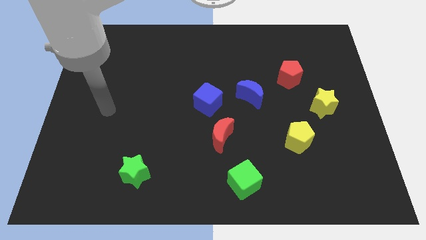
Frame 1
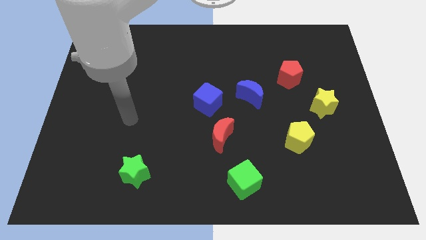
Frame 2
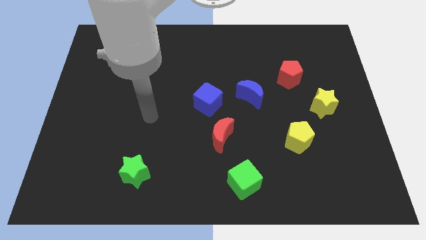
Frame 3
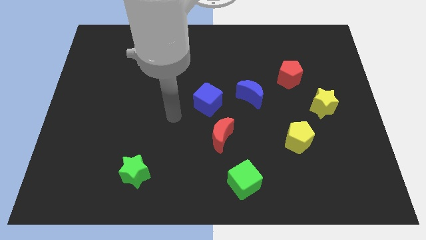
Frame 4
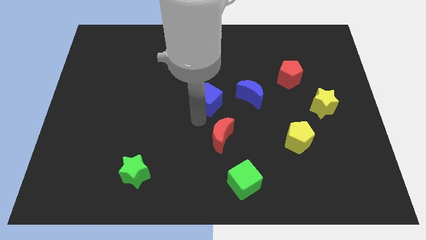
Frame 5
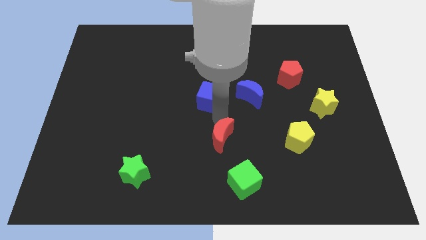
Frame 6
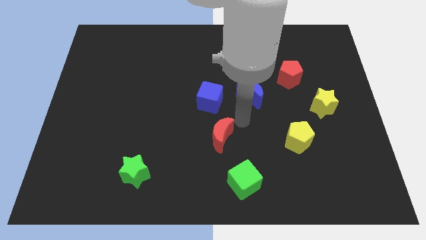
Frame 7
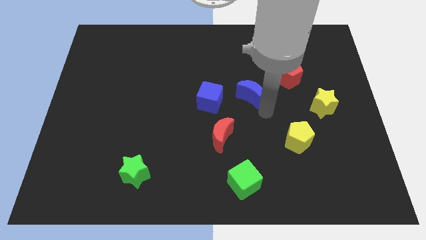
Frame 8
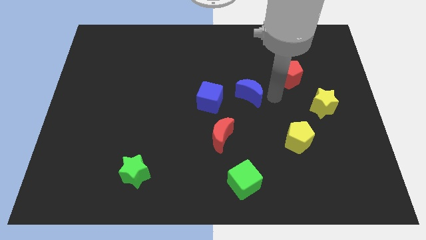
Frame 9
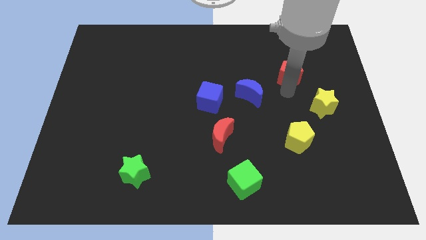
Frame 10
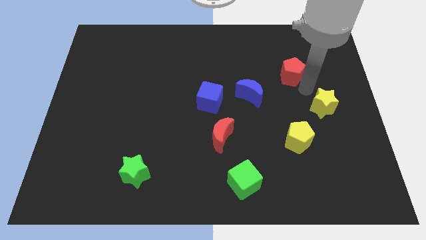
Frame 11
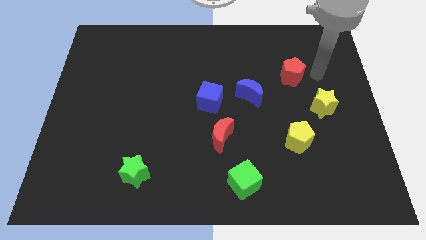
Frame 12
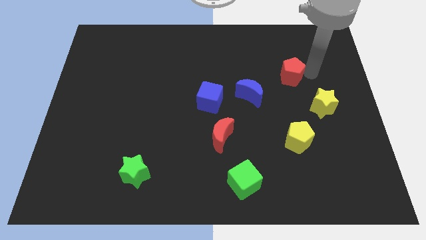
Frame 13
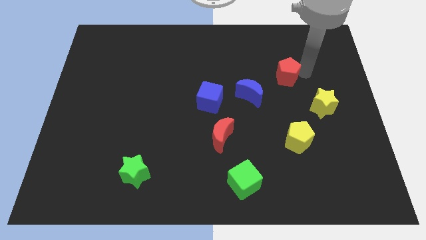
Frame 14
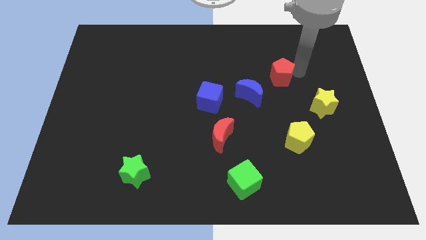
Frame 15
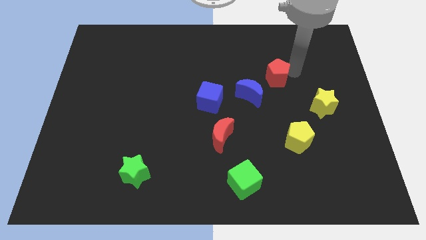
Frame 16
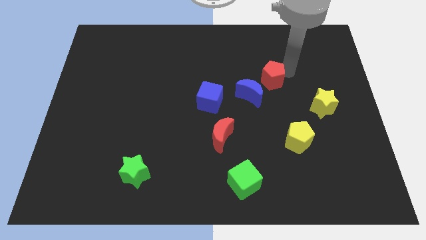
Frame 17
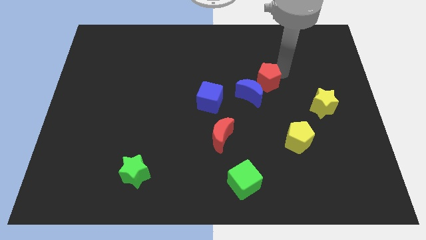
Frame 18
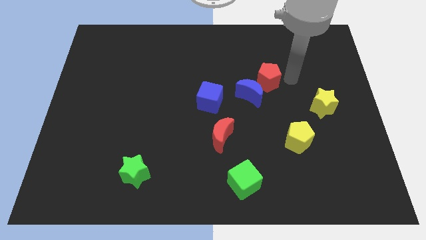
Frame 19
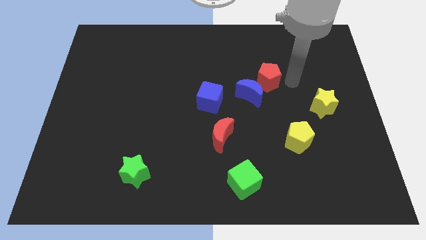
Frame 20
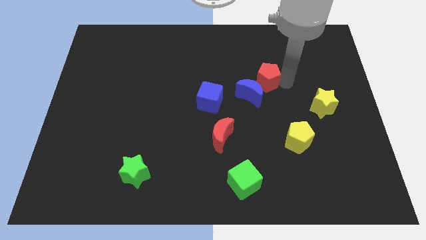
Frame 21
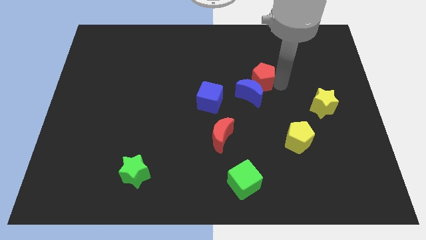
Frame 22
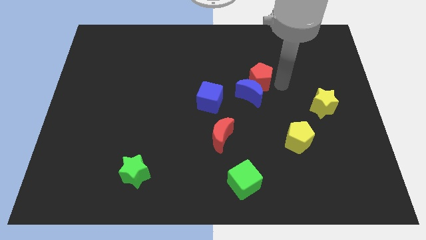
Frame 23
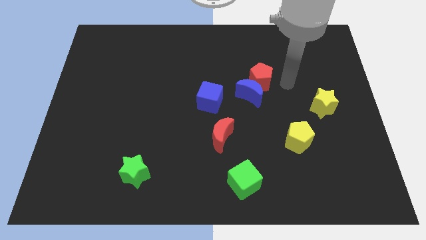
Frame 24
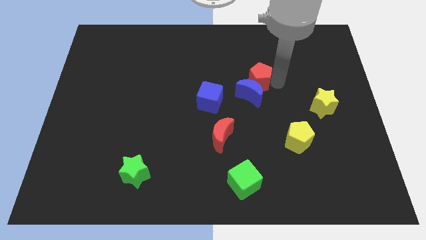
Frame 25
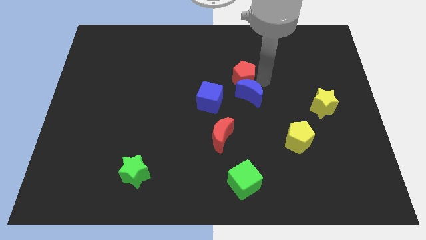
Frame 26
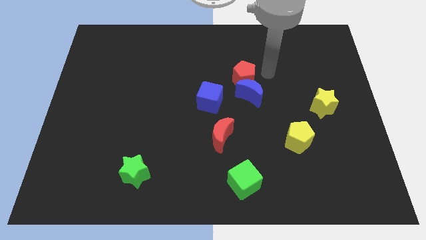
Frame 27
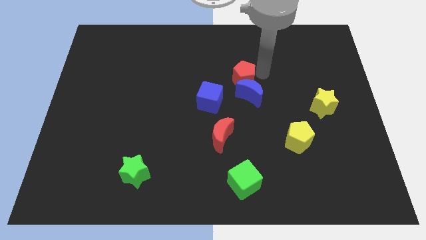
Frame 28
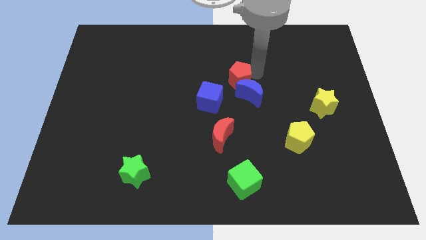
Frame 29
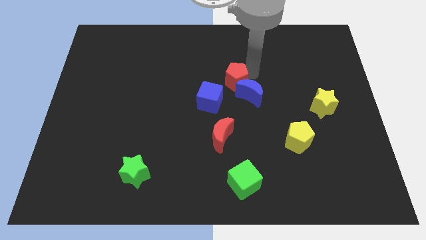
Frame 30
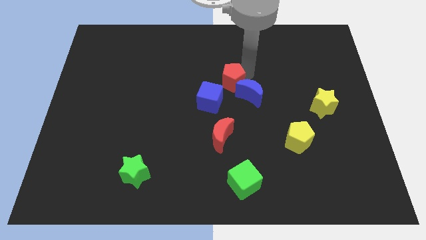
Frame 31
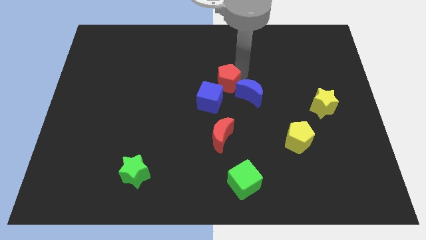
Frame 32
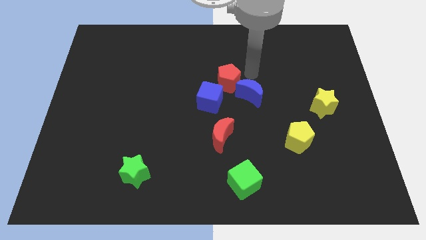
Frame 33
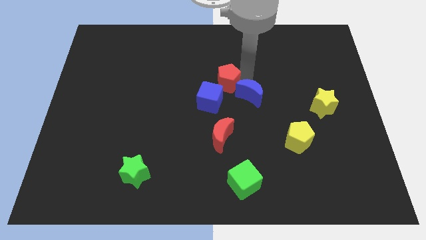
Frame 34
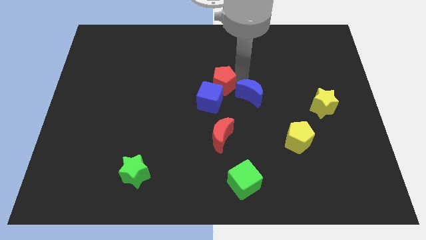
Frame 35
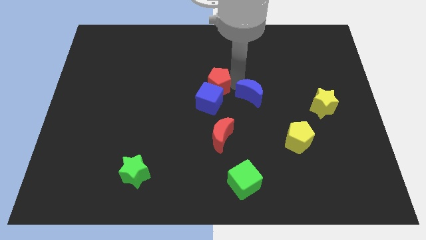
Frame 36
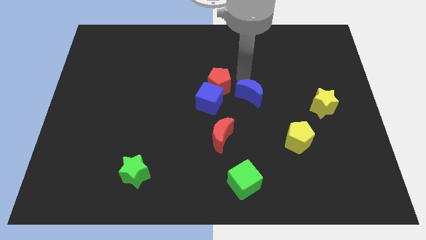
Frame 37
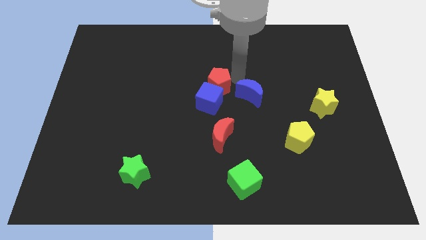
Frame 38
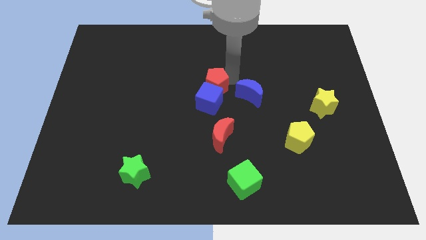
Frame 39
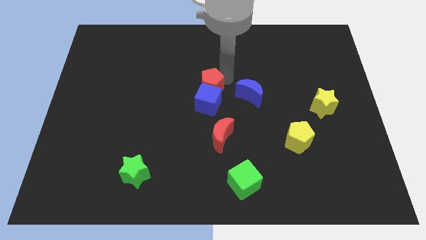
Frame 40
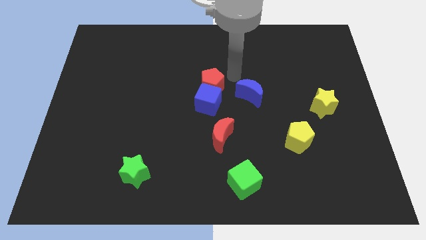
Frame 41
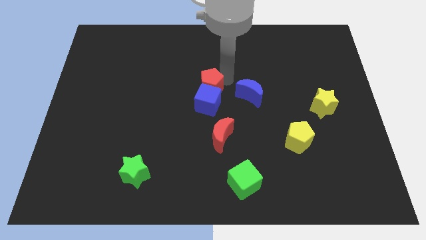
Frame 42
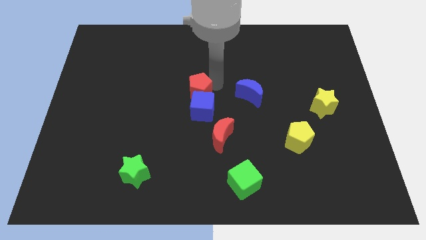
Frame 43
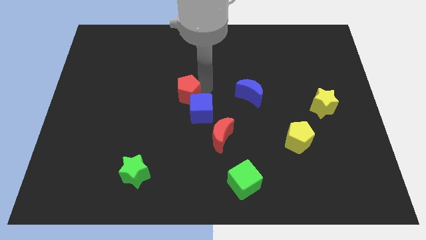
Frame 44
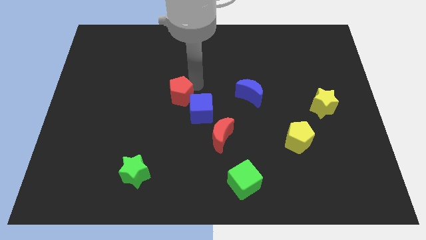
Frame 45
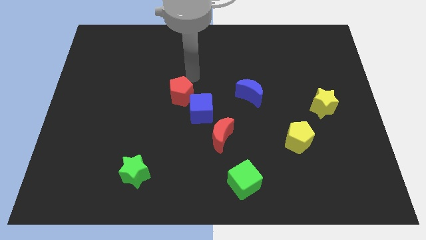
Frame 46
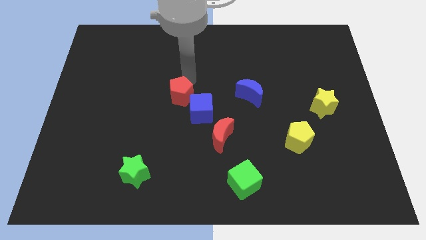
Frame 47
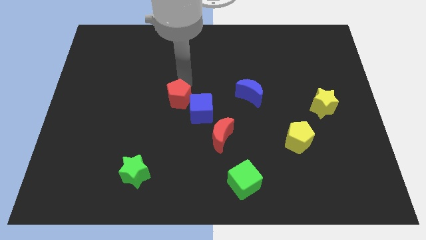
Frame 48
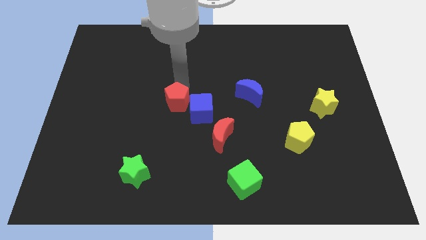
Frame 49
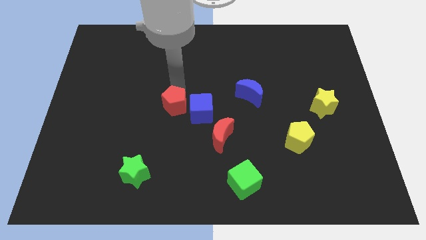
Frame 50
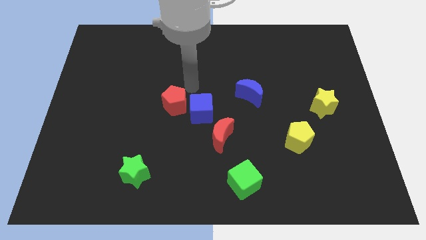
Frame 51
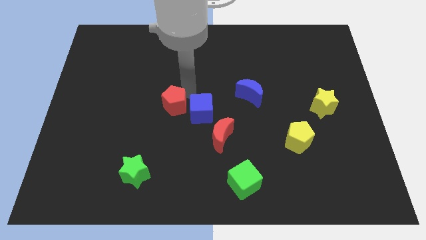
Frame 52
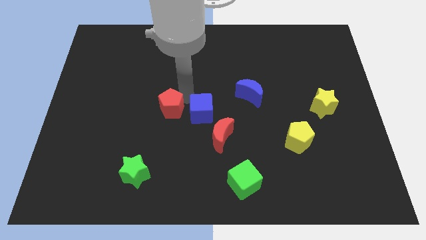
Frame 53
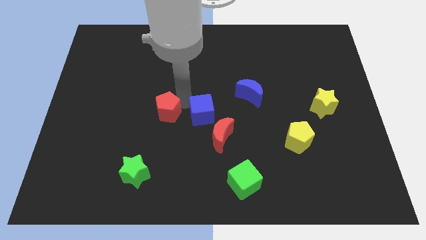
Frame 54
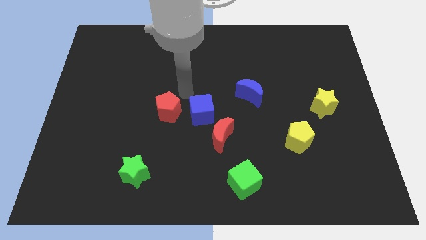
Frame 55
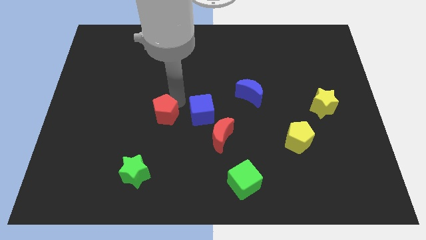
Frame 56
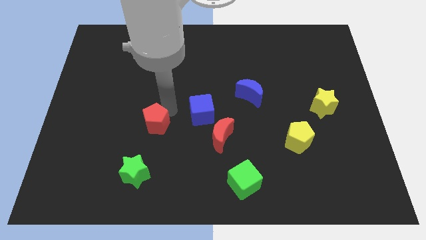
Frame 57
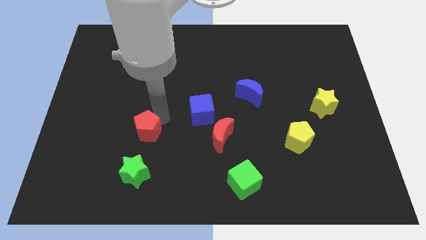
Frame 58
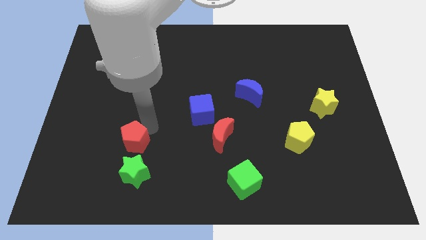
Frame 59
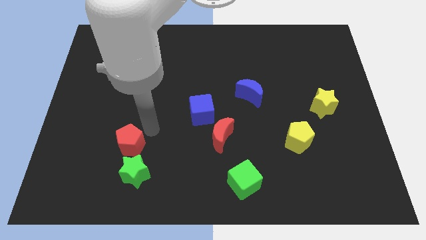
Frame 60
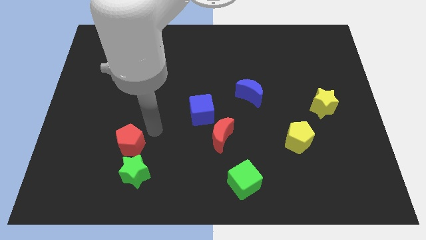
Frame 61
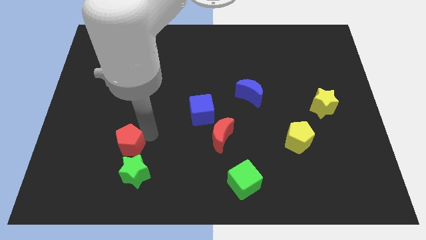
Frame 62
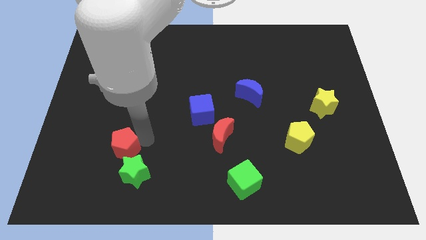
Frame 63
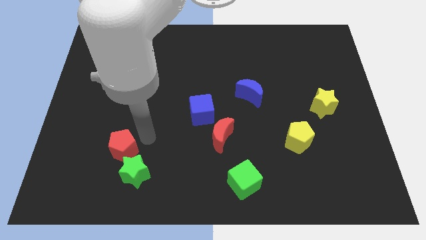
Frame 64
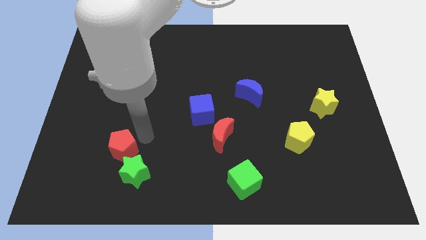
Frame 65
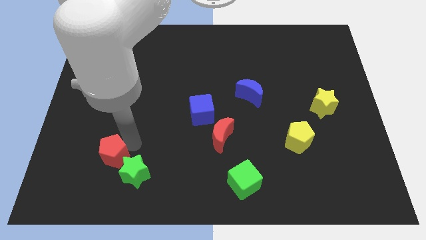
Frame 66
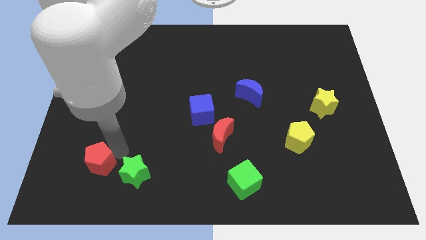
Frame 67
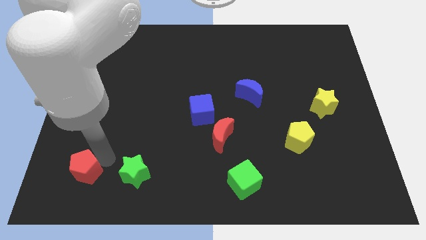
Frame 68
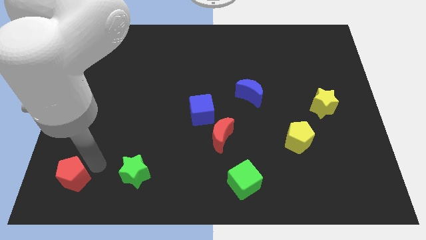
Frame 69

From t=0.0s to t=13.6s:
move the red pentagon to the lower left corner
